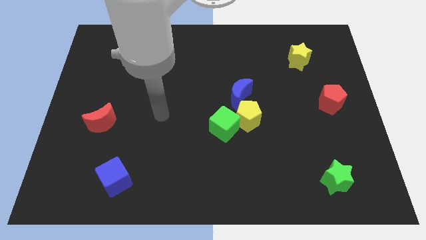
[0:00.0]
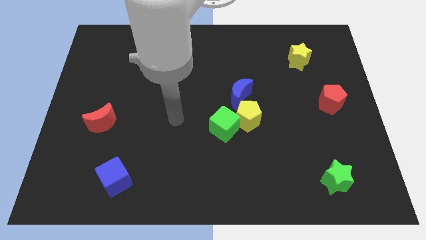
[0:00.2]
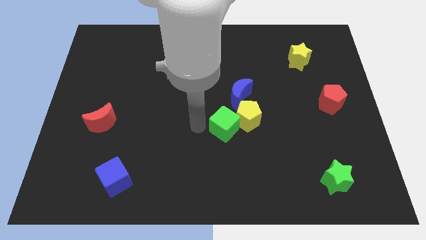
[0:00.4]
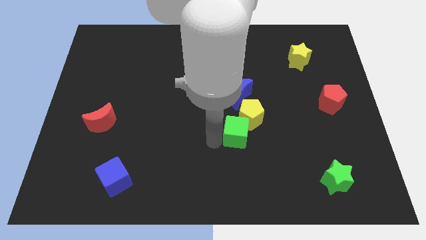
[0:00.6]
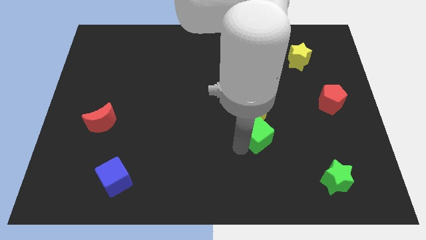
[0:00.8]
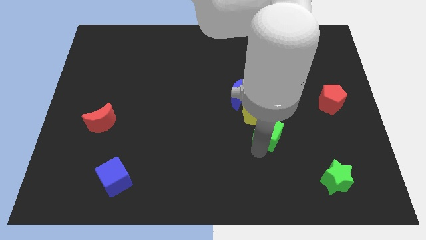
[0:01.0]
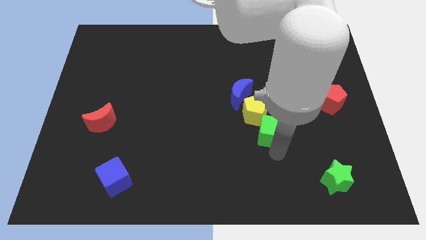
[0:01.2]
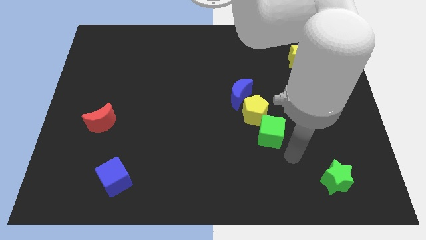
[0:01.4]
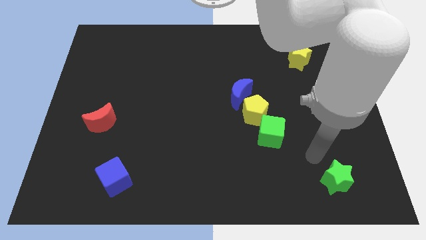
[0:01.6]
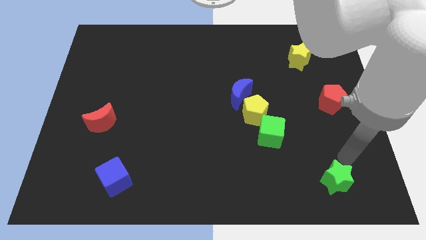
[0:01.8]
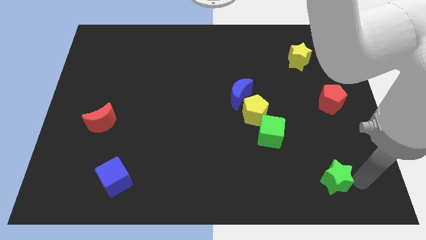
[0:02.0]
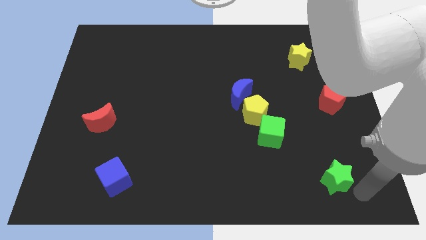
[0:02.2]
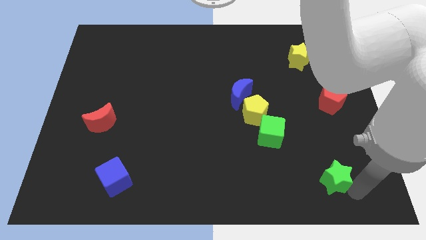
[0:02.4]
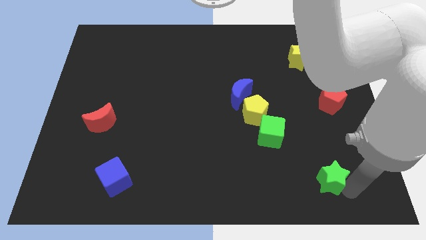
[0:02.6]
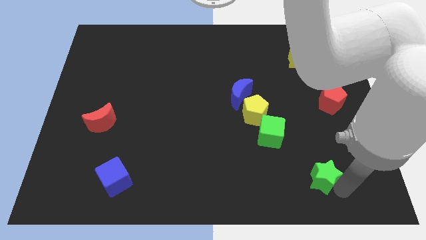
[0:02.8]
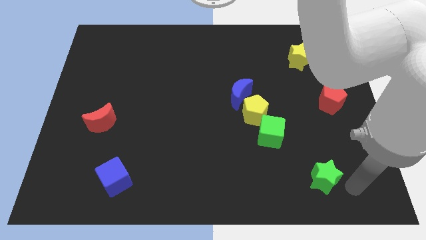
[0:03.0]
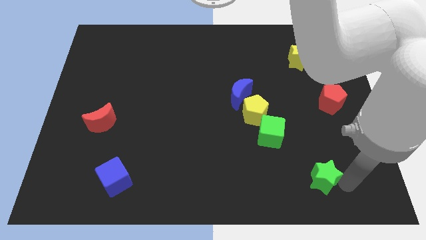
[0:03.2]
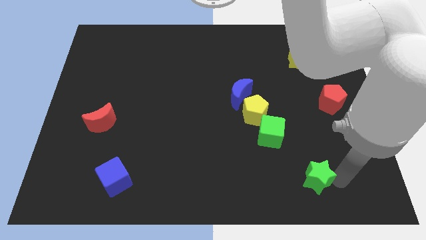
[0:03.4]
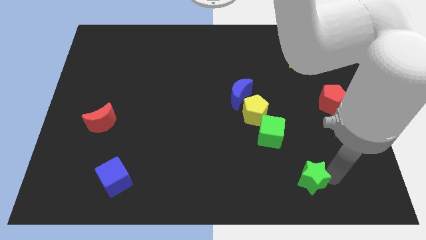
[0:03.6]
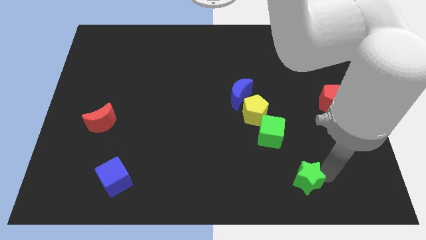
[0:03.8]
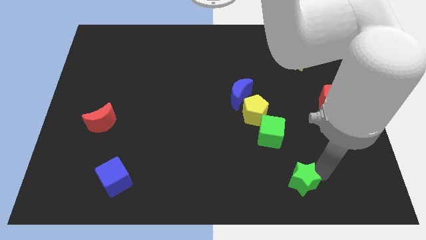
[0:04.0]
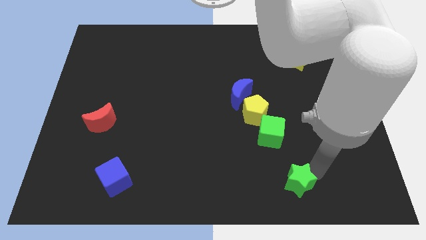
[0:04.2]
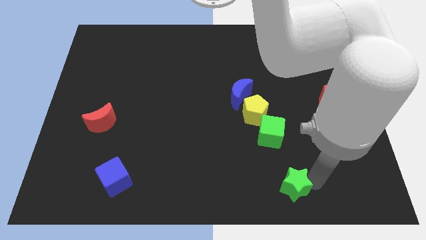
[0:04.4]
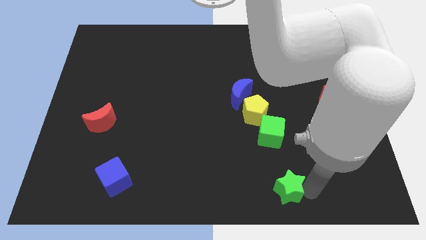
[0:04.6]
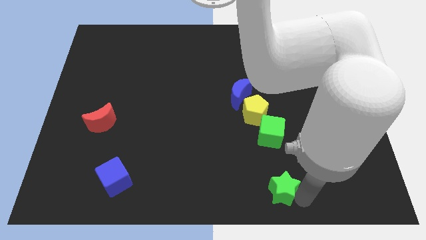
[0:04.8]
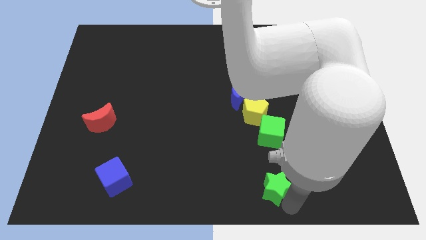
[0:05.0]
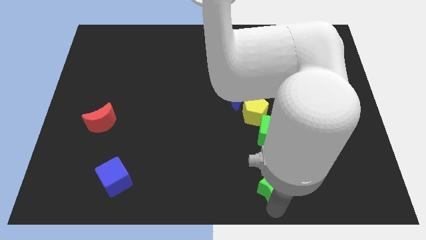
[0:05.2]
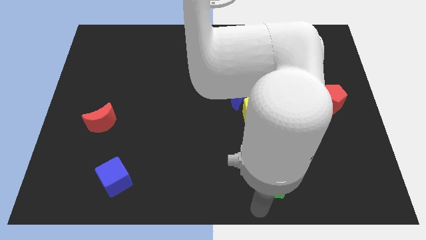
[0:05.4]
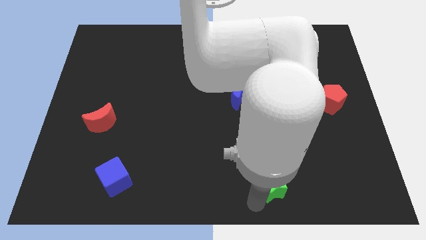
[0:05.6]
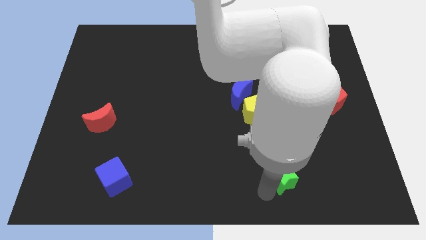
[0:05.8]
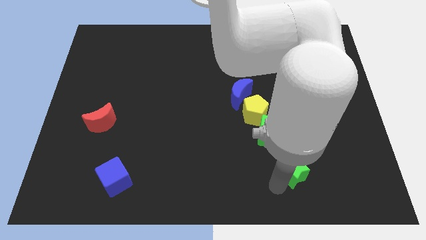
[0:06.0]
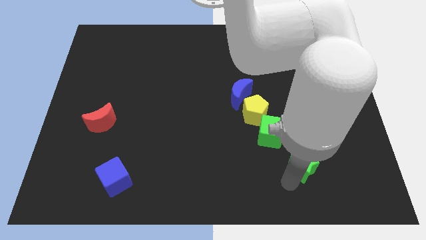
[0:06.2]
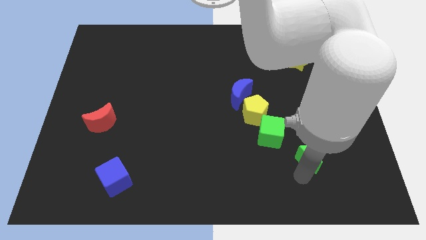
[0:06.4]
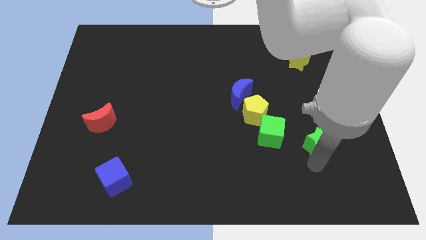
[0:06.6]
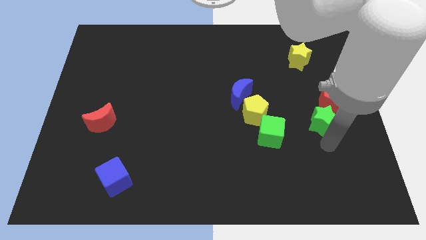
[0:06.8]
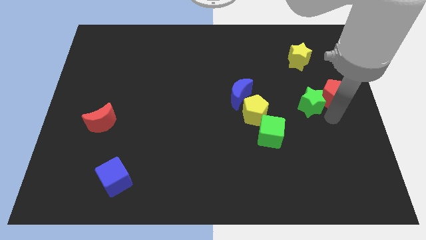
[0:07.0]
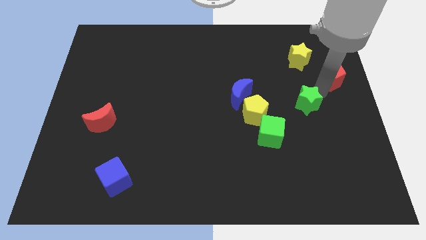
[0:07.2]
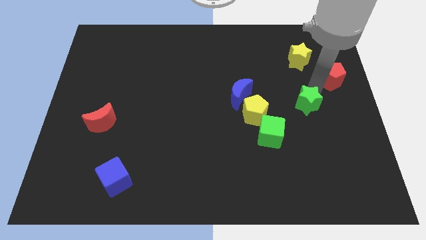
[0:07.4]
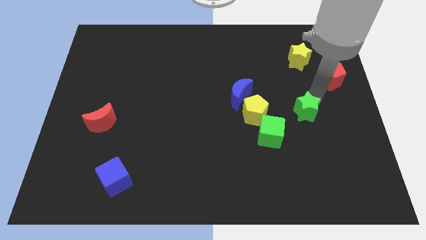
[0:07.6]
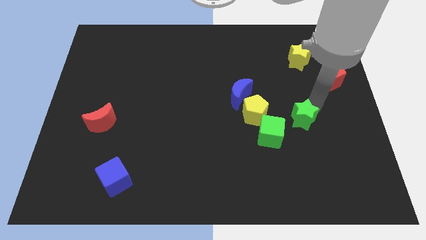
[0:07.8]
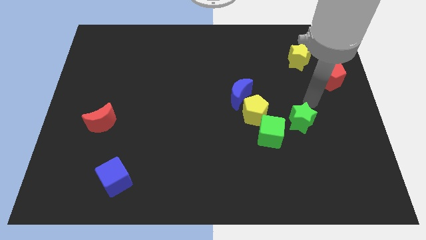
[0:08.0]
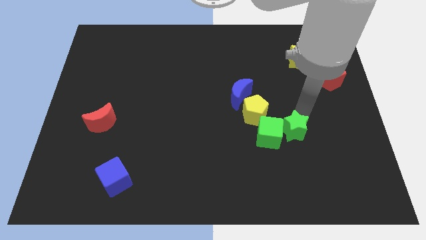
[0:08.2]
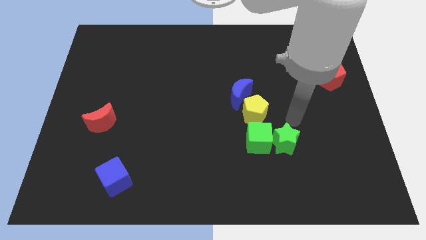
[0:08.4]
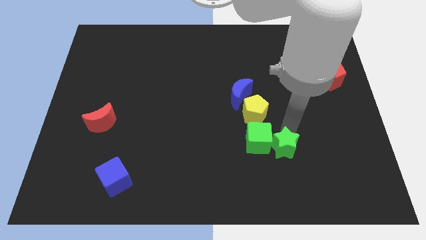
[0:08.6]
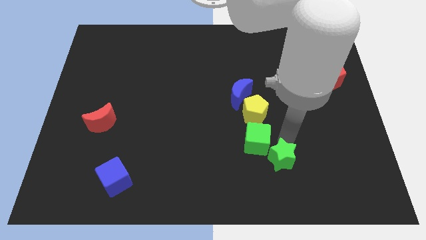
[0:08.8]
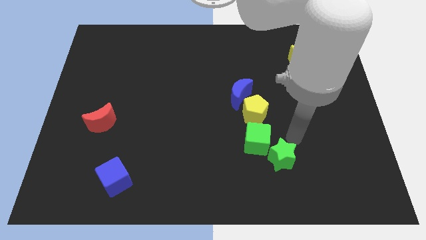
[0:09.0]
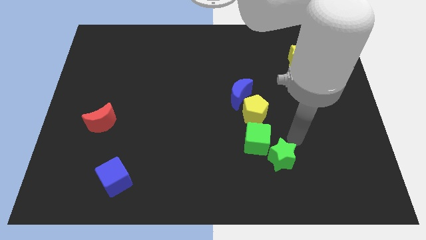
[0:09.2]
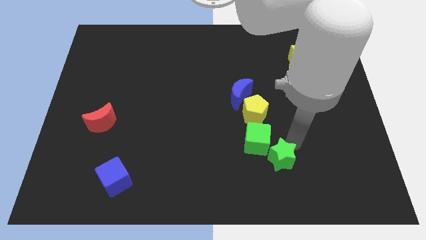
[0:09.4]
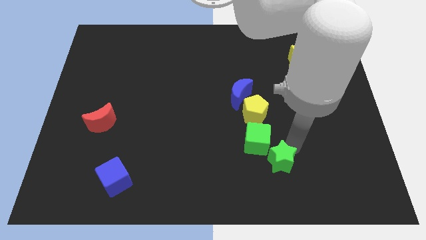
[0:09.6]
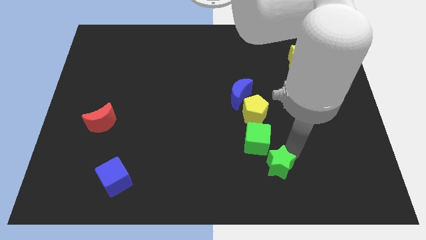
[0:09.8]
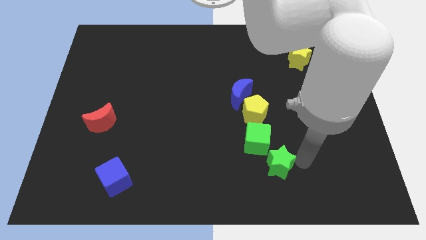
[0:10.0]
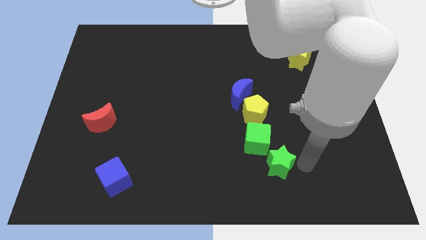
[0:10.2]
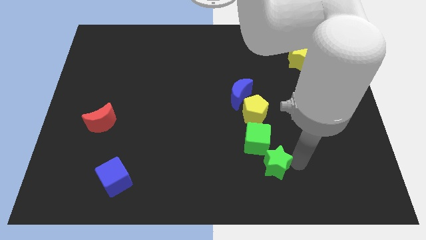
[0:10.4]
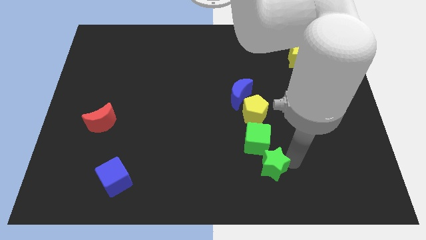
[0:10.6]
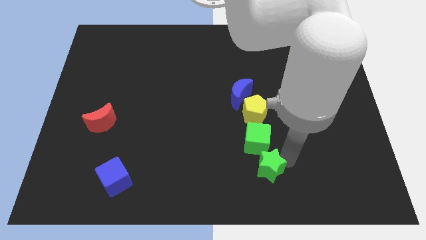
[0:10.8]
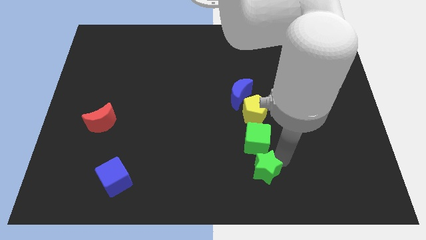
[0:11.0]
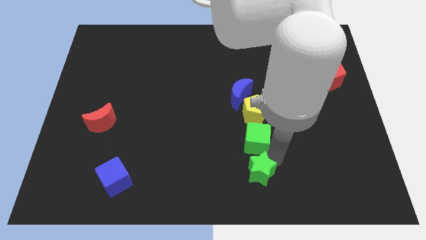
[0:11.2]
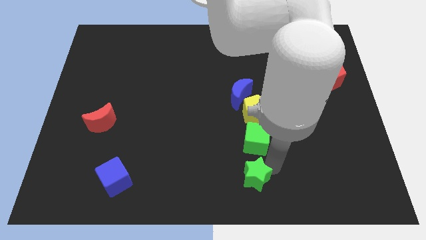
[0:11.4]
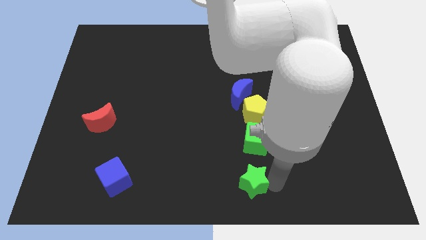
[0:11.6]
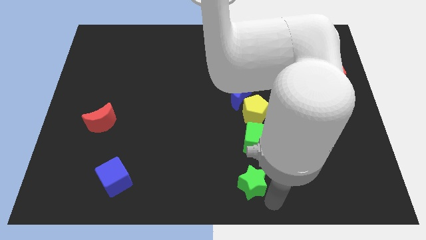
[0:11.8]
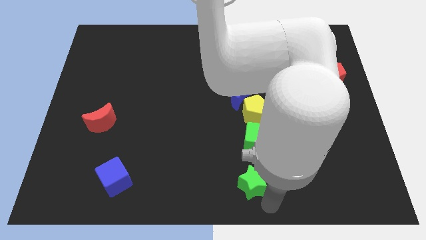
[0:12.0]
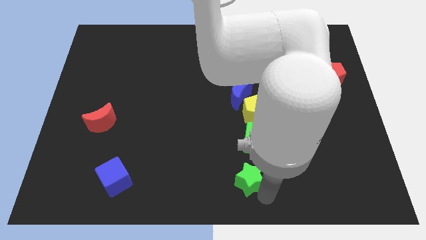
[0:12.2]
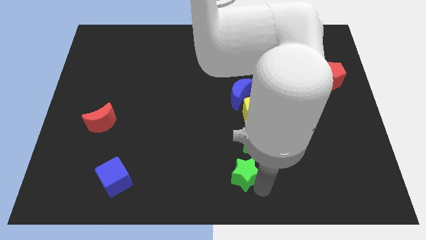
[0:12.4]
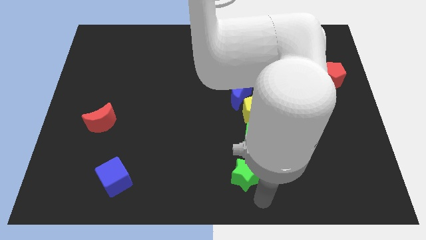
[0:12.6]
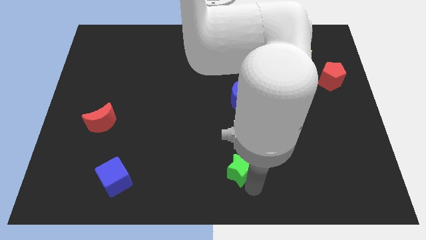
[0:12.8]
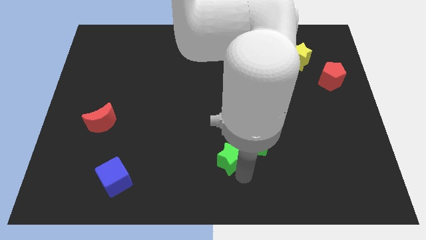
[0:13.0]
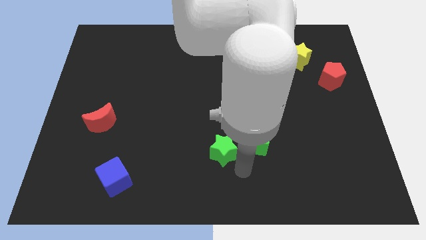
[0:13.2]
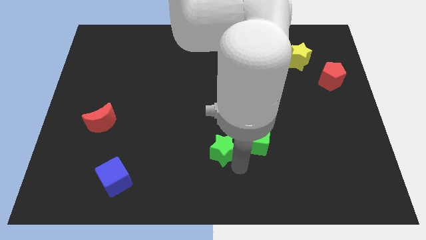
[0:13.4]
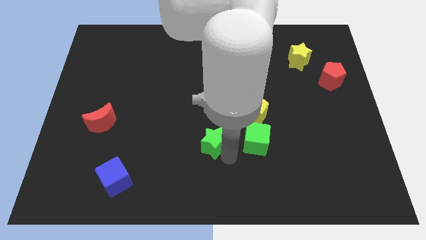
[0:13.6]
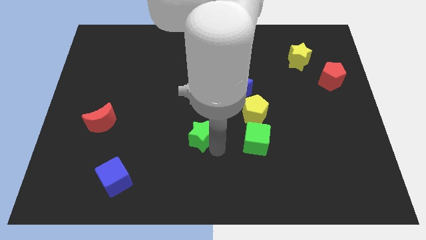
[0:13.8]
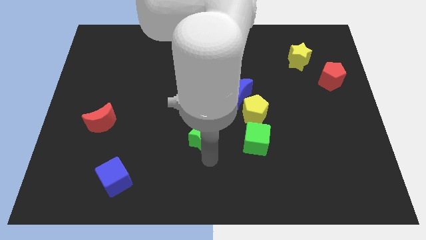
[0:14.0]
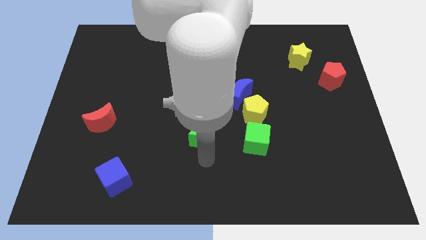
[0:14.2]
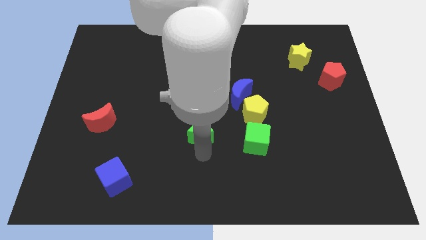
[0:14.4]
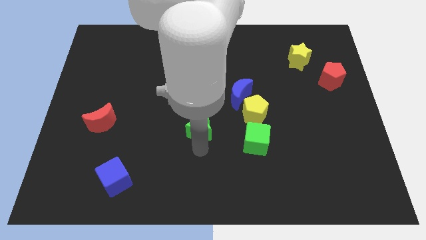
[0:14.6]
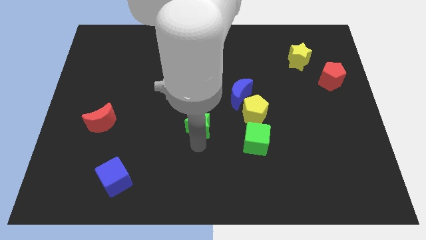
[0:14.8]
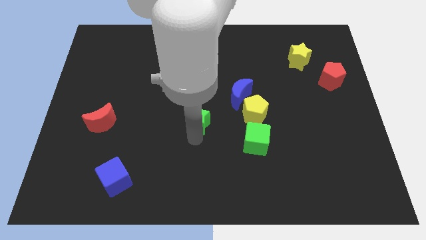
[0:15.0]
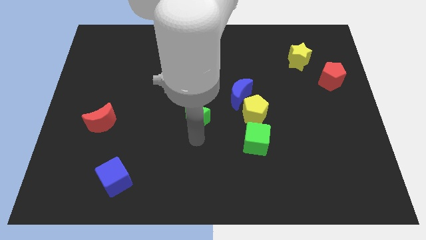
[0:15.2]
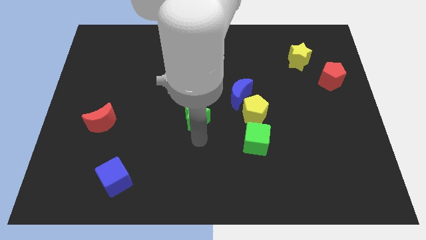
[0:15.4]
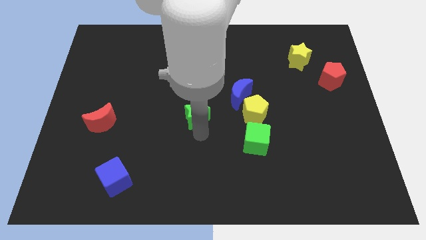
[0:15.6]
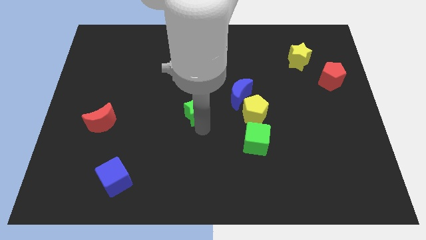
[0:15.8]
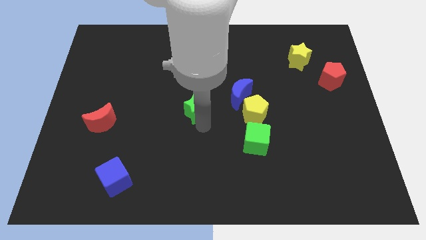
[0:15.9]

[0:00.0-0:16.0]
push the green star to the left of the blue moon
